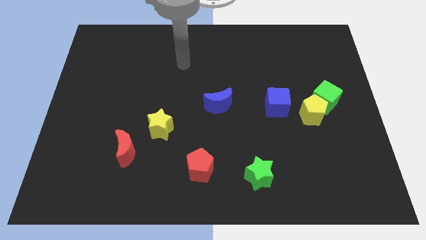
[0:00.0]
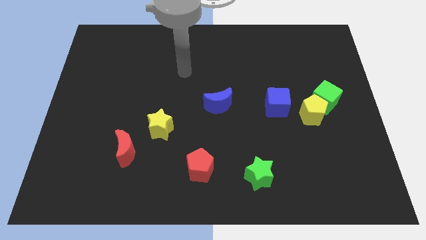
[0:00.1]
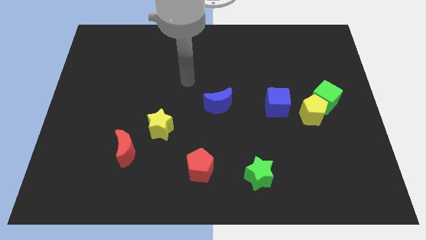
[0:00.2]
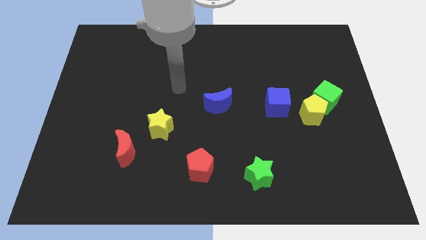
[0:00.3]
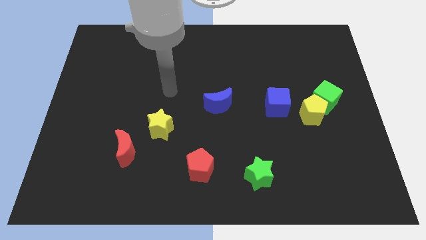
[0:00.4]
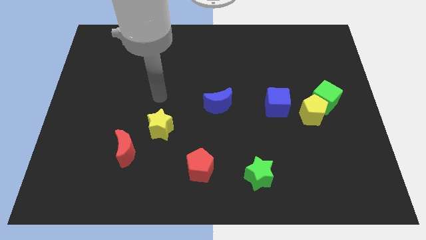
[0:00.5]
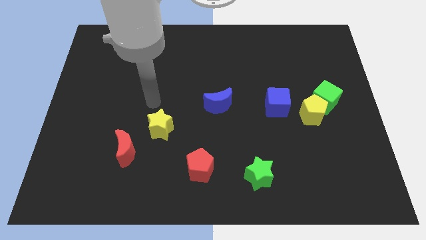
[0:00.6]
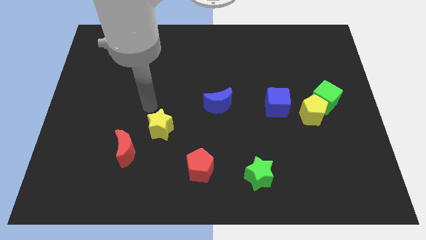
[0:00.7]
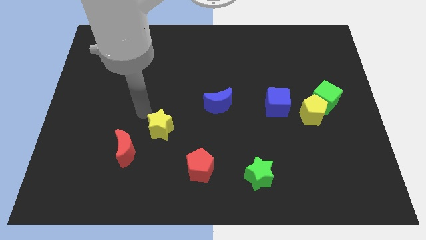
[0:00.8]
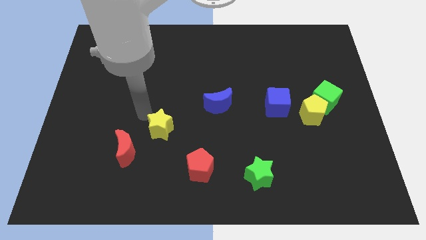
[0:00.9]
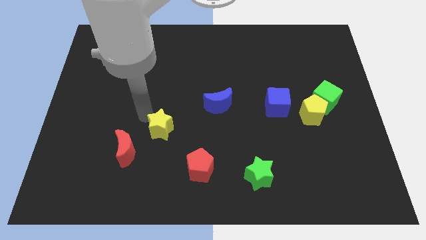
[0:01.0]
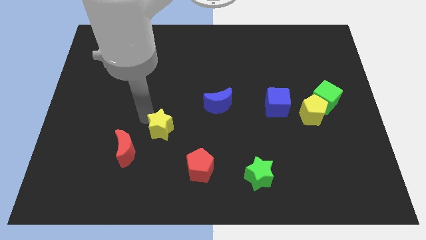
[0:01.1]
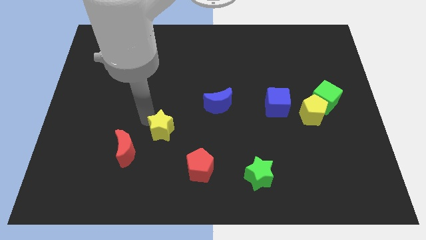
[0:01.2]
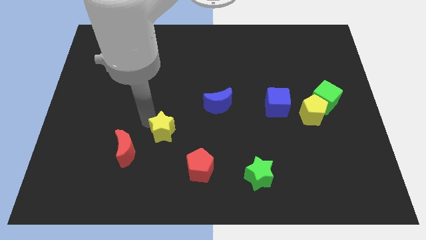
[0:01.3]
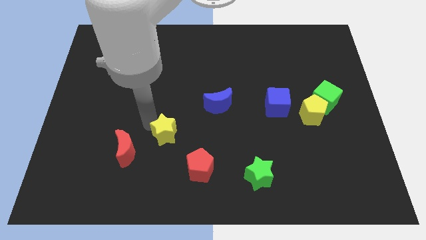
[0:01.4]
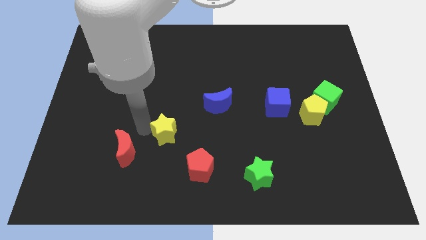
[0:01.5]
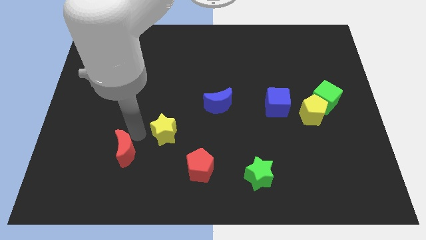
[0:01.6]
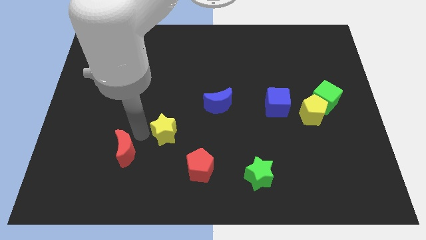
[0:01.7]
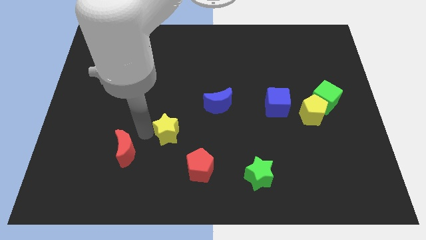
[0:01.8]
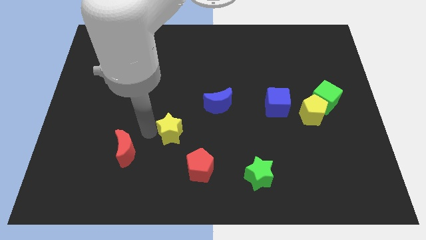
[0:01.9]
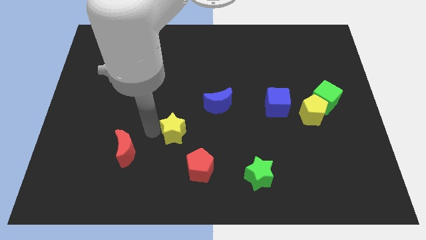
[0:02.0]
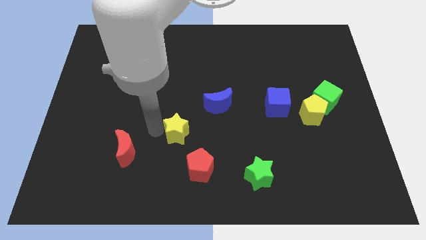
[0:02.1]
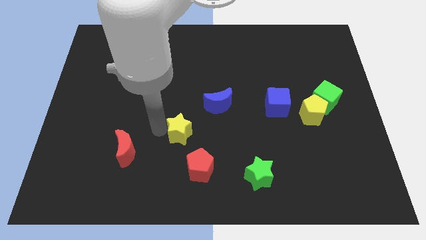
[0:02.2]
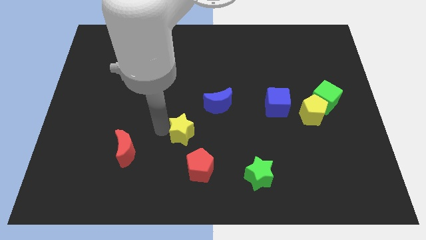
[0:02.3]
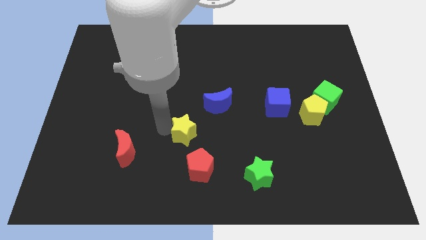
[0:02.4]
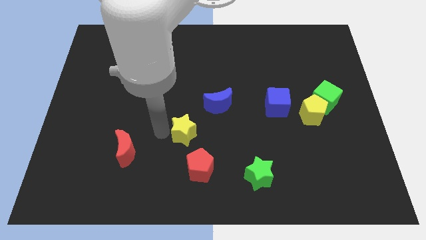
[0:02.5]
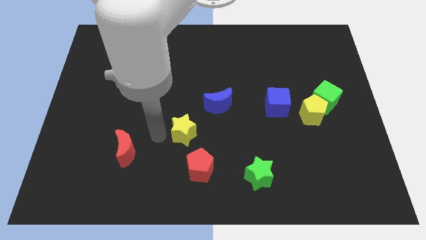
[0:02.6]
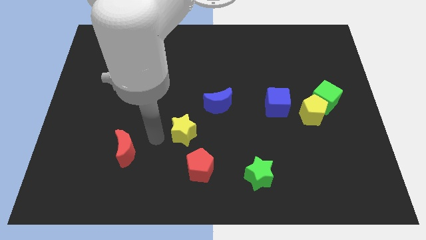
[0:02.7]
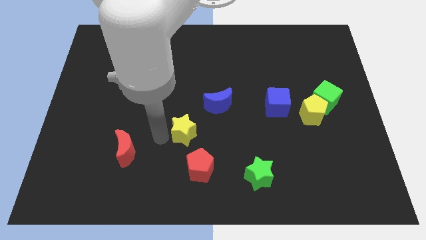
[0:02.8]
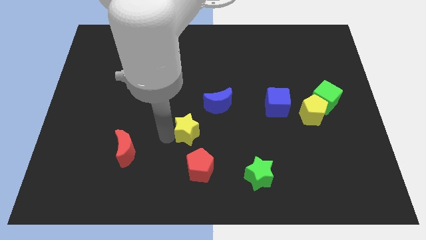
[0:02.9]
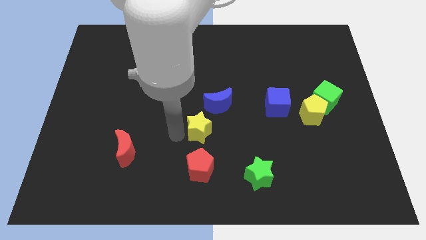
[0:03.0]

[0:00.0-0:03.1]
push the yellow star slightly to the right

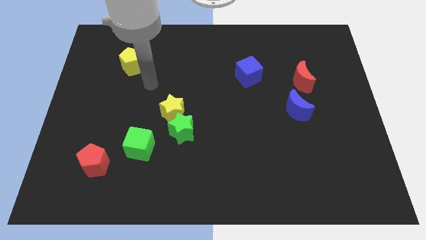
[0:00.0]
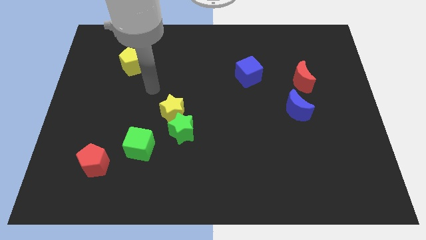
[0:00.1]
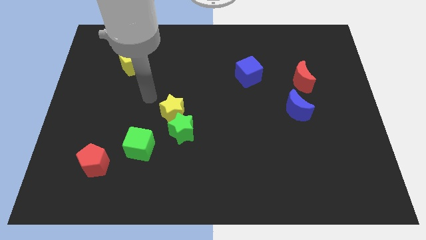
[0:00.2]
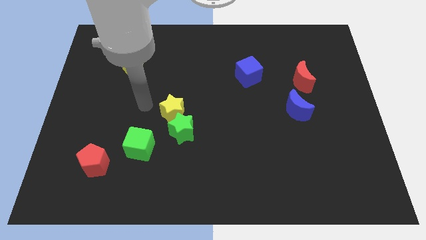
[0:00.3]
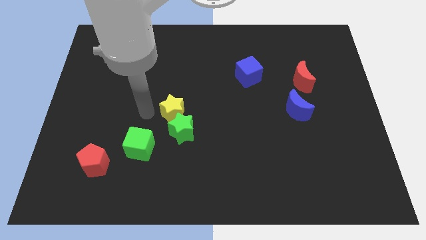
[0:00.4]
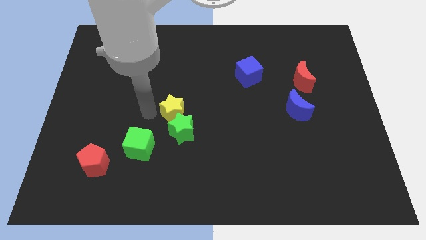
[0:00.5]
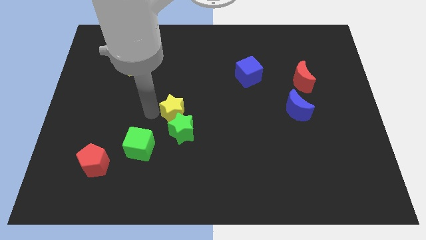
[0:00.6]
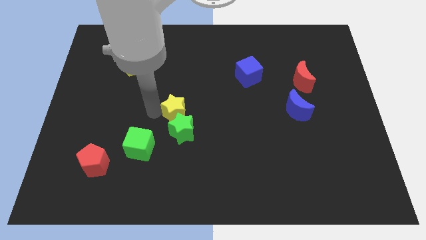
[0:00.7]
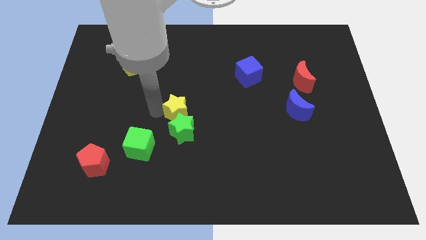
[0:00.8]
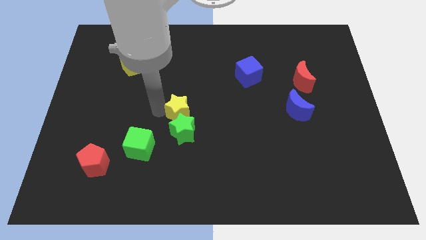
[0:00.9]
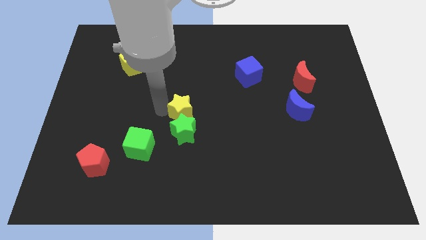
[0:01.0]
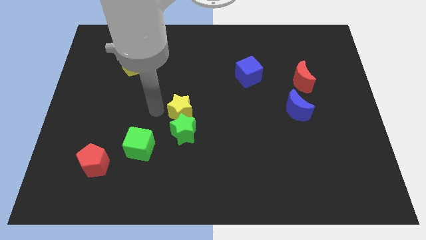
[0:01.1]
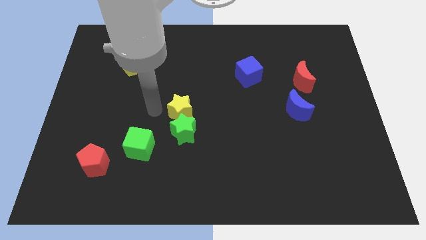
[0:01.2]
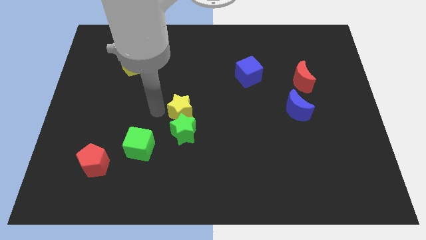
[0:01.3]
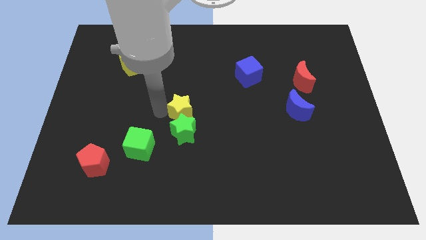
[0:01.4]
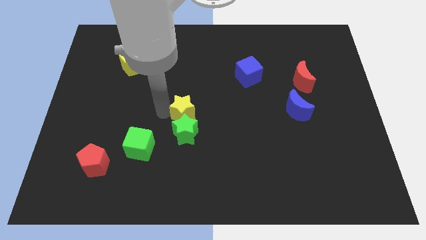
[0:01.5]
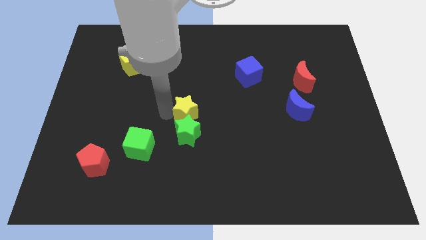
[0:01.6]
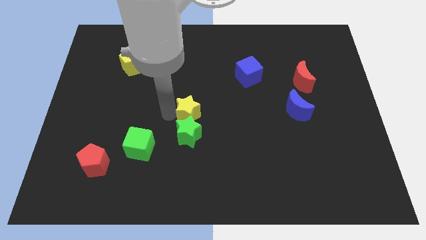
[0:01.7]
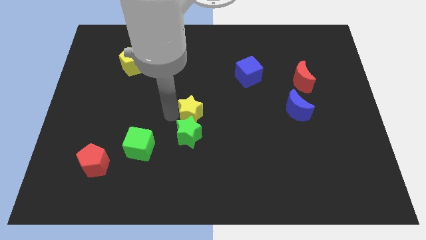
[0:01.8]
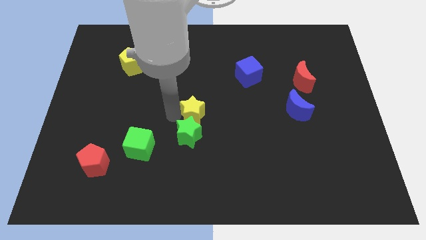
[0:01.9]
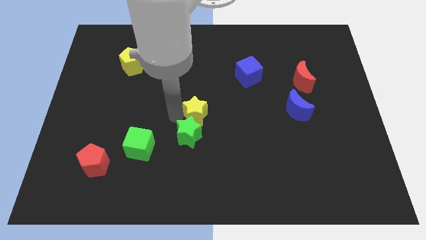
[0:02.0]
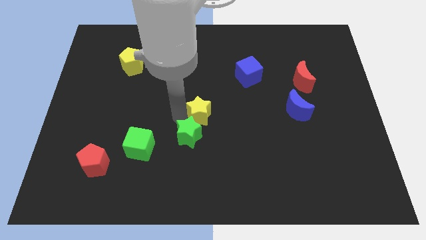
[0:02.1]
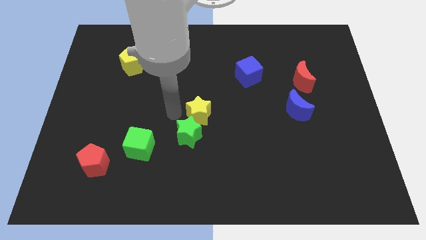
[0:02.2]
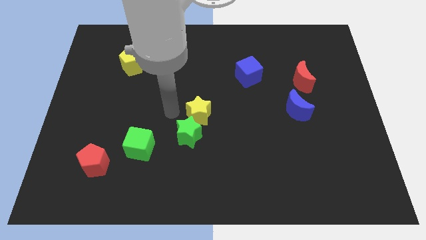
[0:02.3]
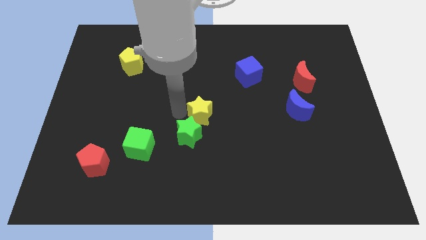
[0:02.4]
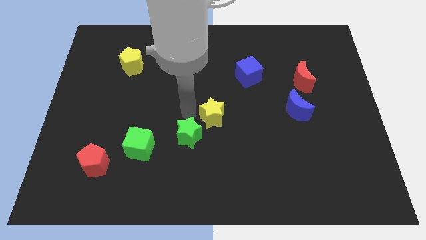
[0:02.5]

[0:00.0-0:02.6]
slide the yellow star right a little bit

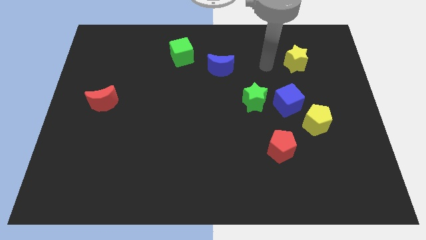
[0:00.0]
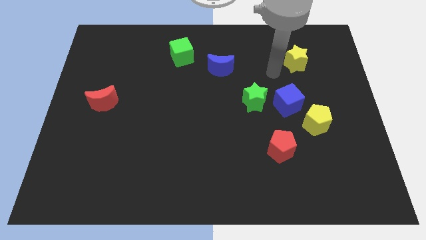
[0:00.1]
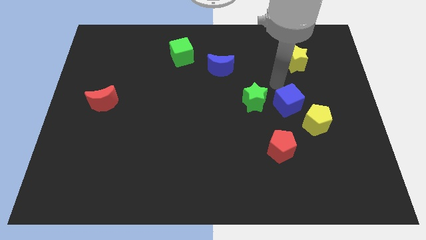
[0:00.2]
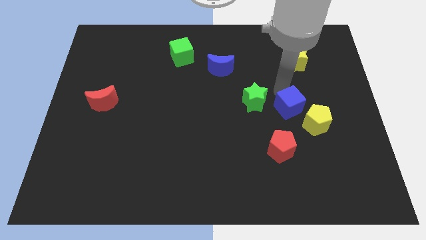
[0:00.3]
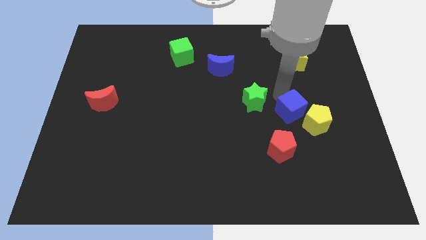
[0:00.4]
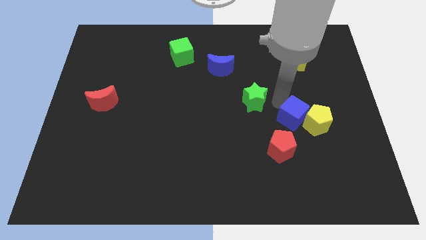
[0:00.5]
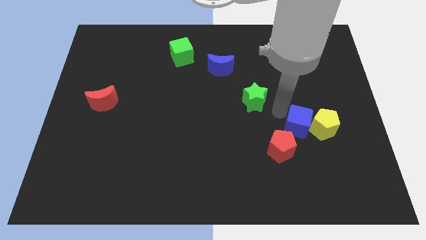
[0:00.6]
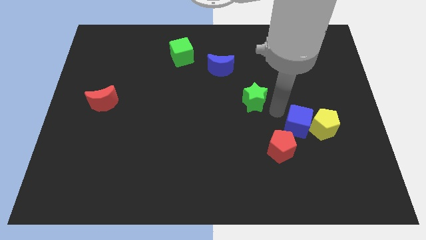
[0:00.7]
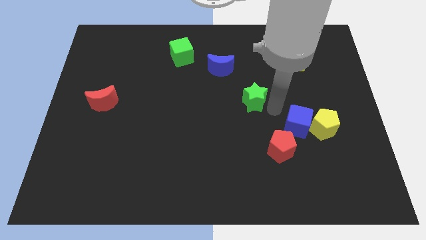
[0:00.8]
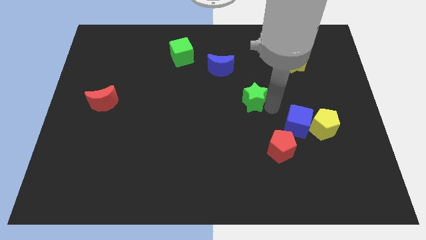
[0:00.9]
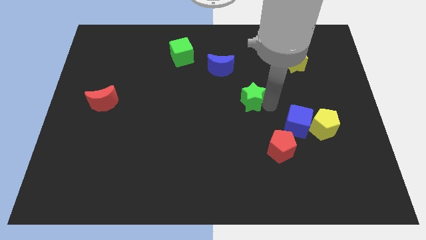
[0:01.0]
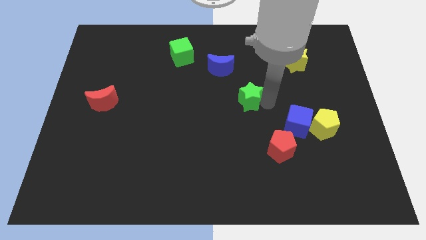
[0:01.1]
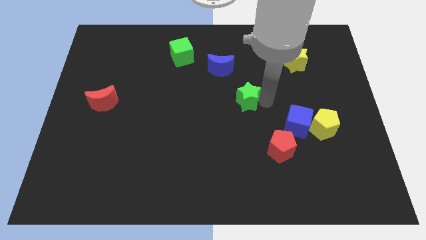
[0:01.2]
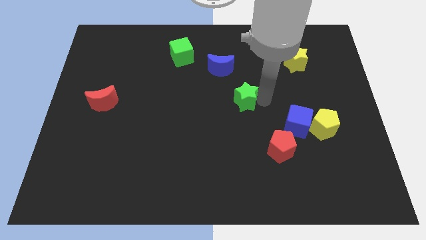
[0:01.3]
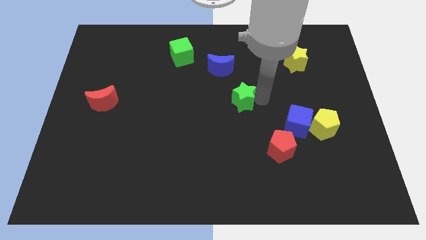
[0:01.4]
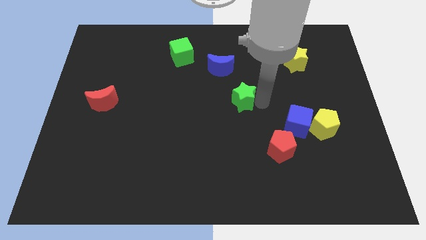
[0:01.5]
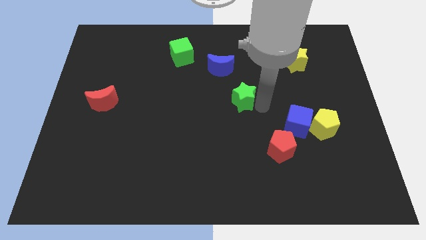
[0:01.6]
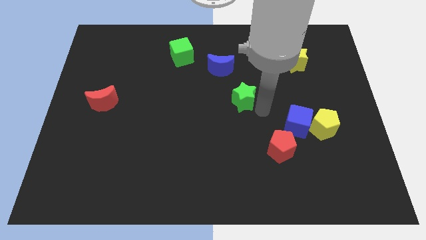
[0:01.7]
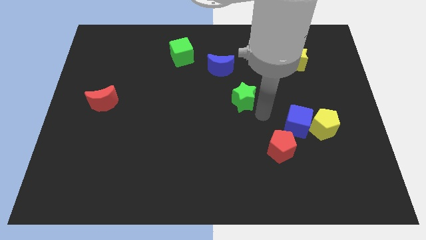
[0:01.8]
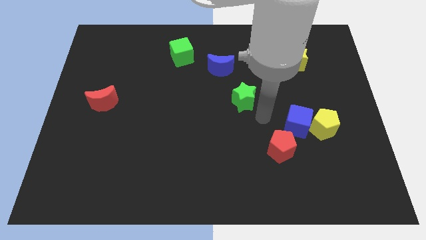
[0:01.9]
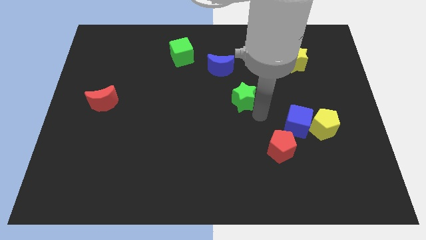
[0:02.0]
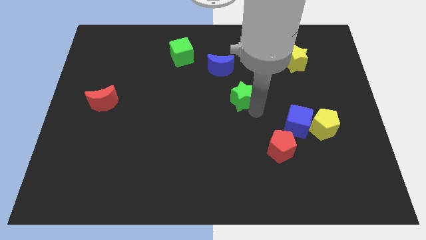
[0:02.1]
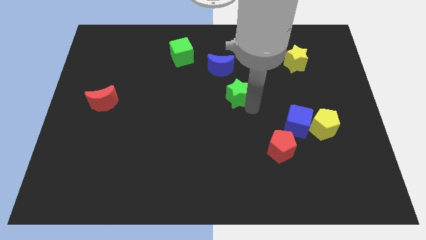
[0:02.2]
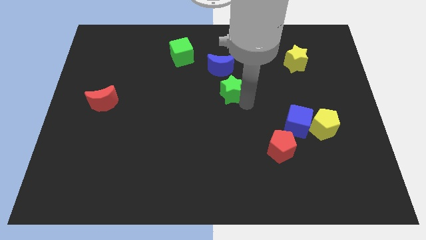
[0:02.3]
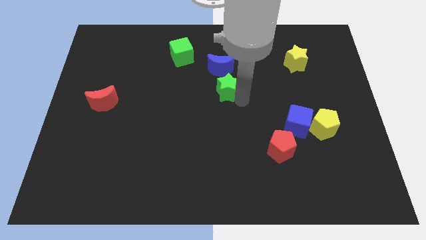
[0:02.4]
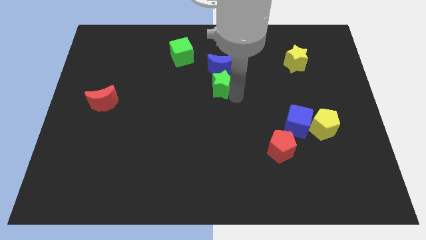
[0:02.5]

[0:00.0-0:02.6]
push the green star diagonally up and left a bit
